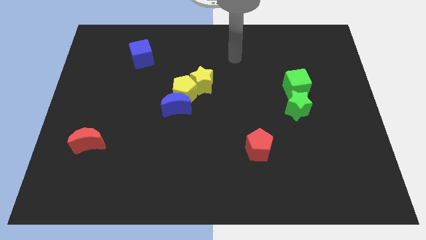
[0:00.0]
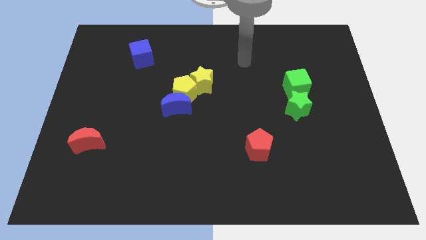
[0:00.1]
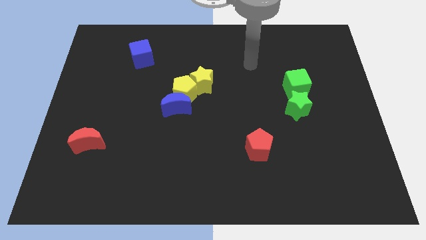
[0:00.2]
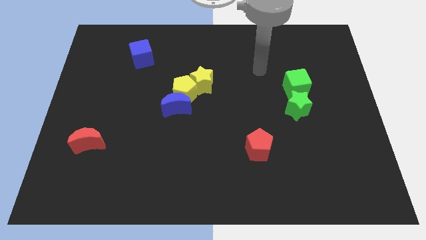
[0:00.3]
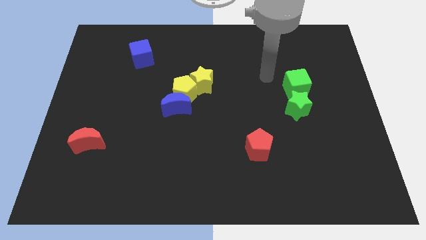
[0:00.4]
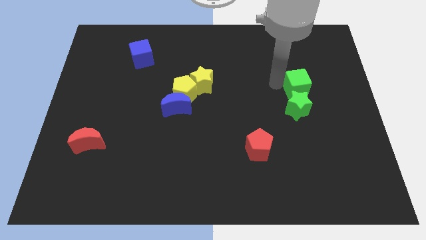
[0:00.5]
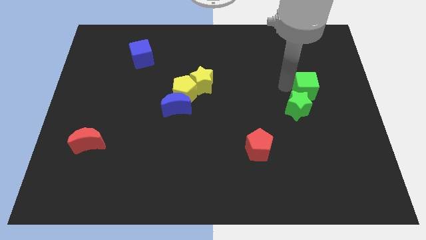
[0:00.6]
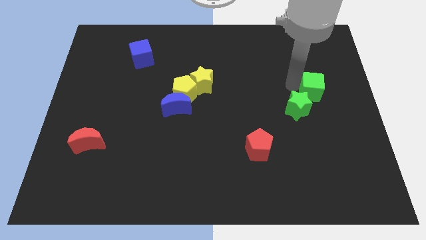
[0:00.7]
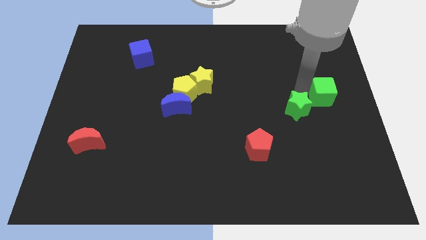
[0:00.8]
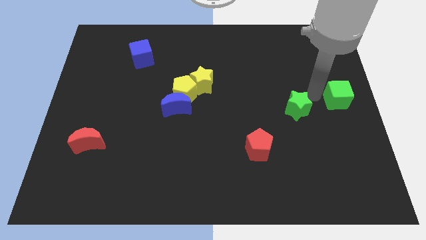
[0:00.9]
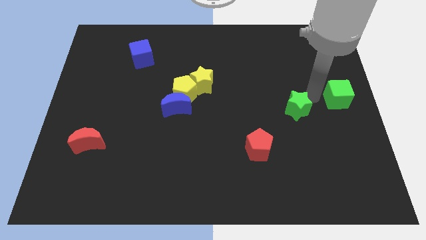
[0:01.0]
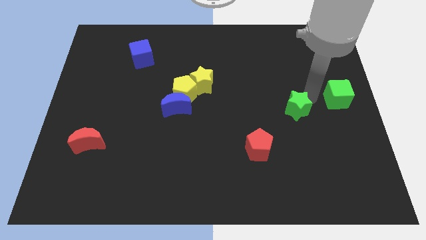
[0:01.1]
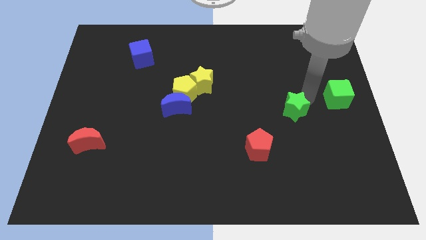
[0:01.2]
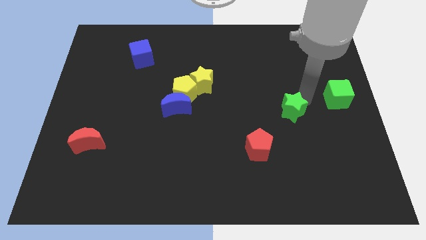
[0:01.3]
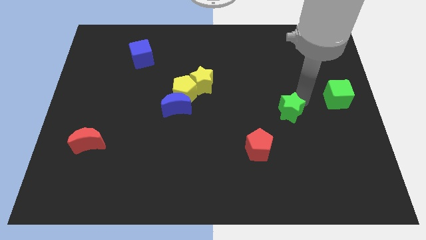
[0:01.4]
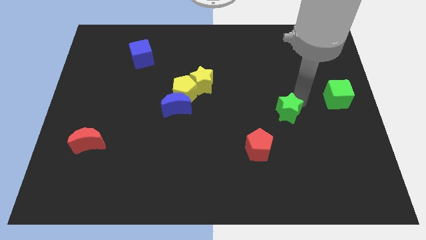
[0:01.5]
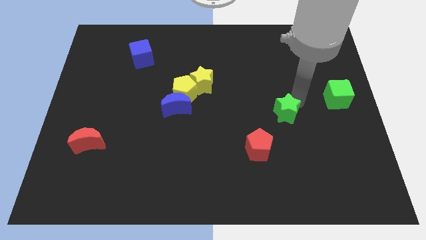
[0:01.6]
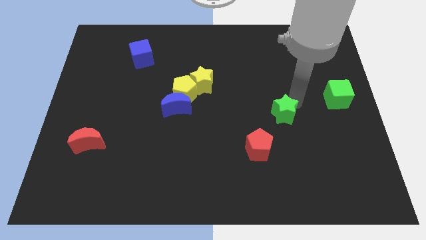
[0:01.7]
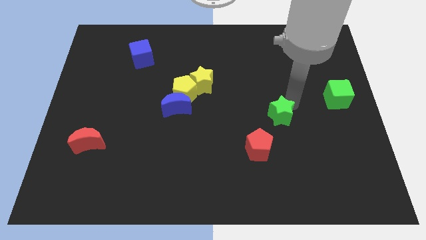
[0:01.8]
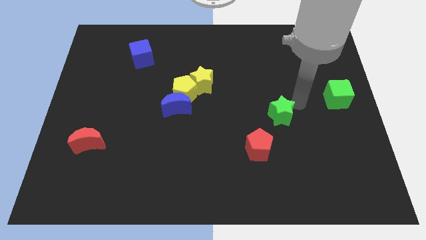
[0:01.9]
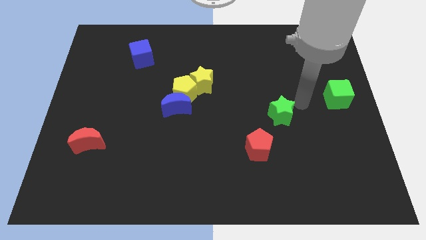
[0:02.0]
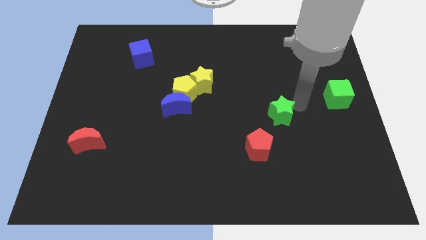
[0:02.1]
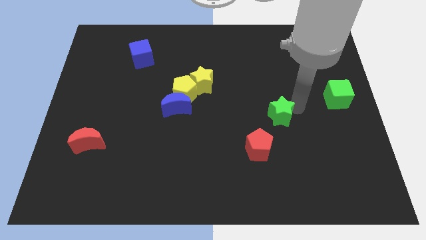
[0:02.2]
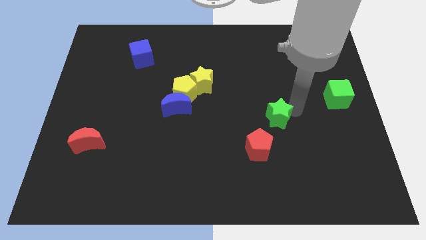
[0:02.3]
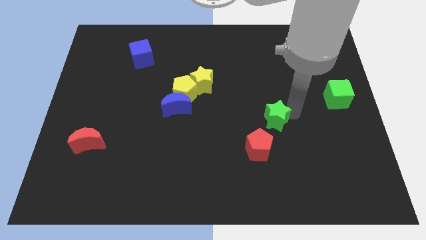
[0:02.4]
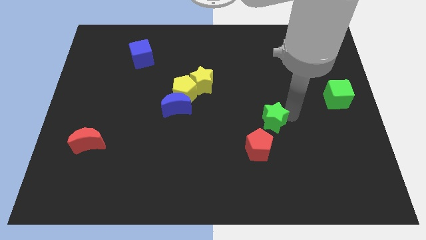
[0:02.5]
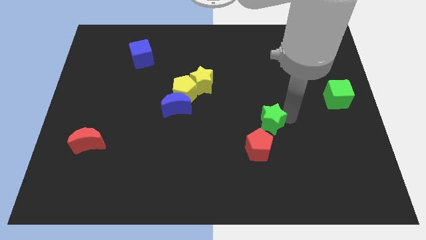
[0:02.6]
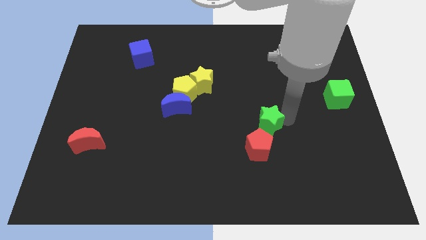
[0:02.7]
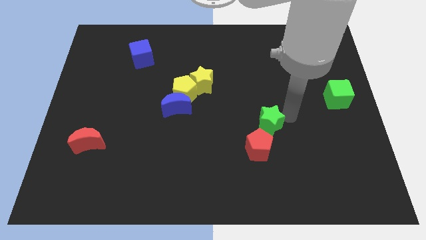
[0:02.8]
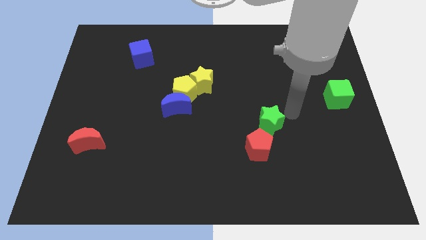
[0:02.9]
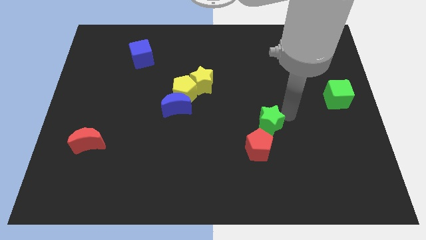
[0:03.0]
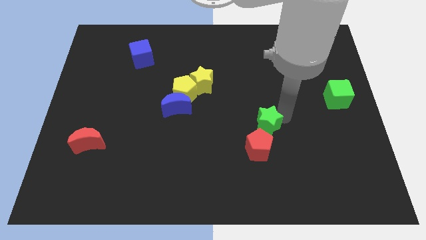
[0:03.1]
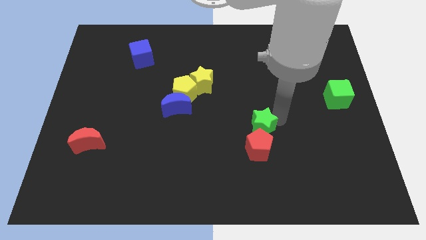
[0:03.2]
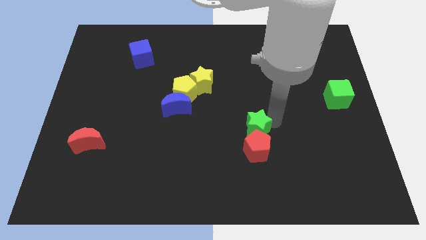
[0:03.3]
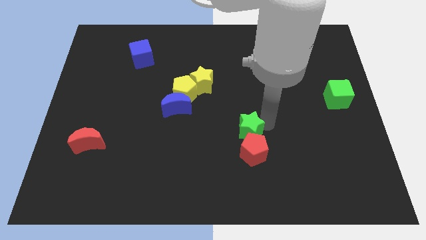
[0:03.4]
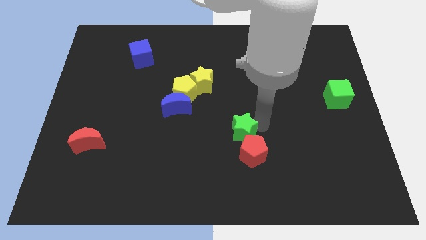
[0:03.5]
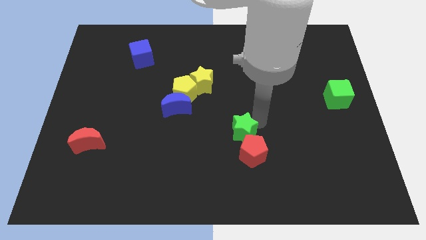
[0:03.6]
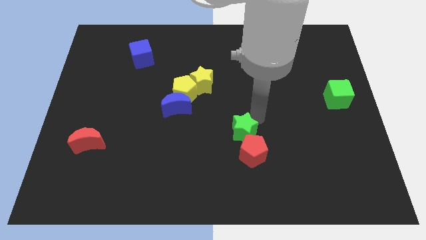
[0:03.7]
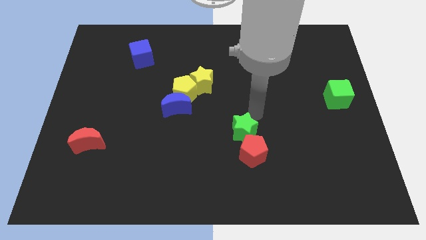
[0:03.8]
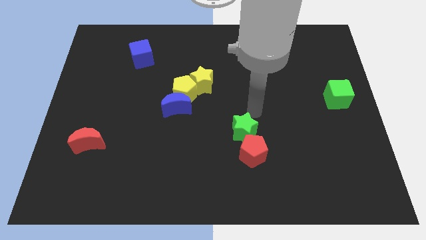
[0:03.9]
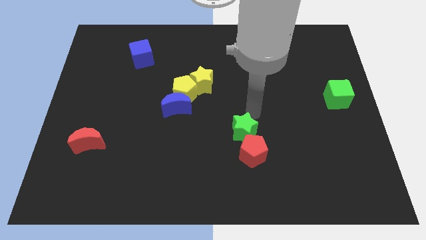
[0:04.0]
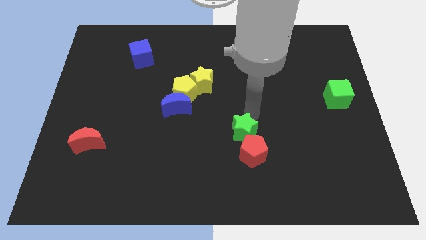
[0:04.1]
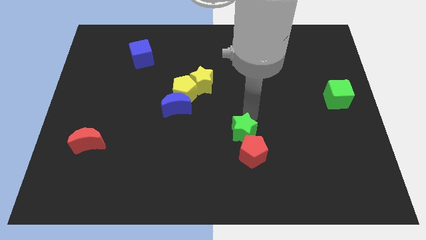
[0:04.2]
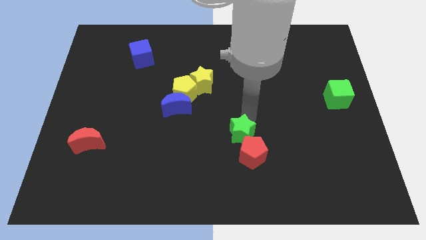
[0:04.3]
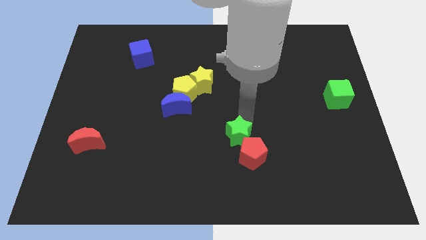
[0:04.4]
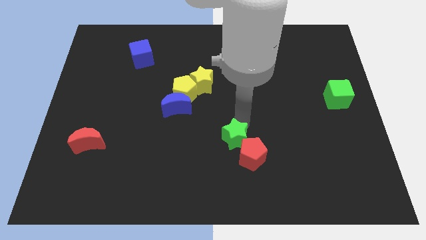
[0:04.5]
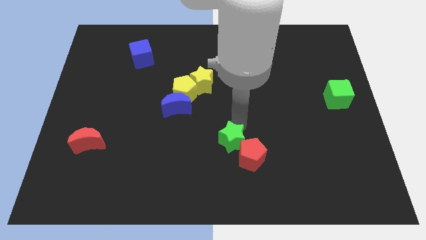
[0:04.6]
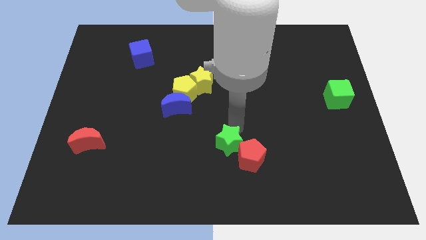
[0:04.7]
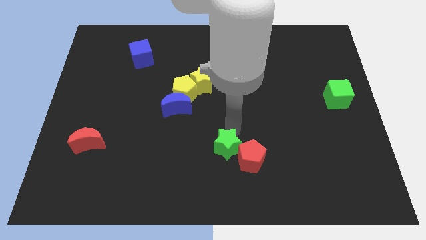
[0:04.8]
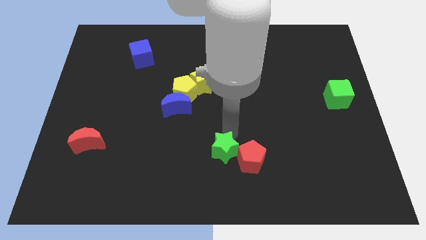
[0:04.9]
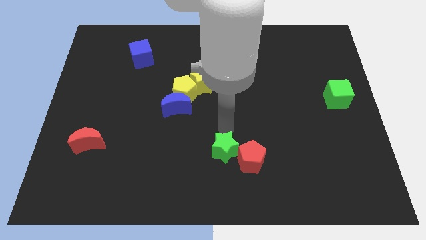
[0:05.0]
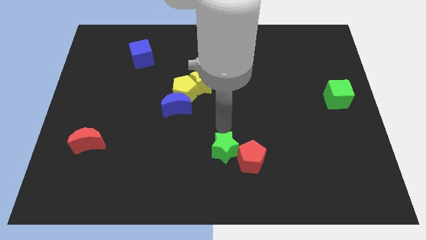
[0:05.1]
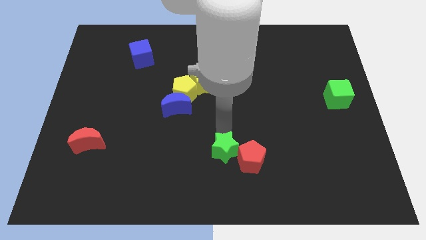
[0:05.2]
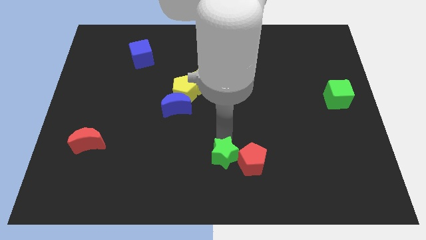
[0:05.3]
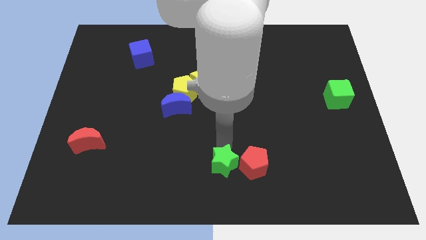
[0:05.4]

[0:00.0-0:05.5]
slide the green star to the bottom left side of the red pentagon
